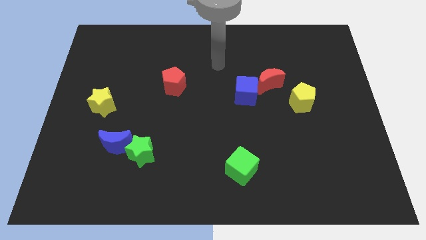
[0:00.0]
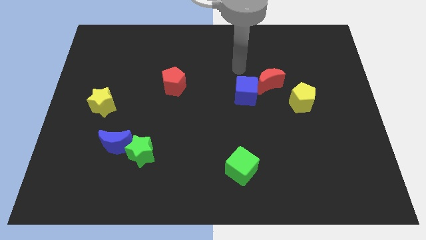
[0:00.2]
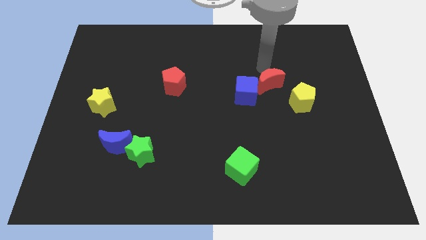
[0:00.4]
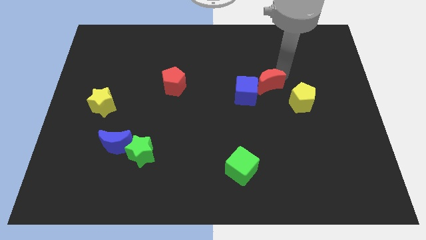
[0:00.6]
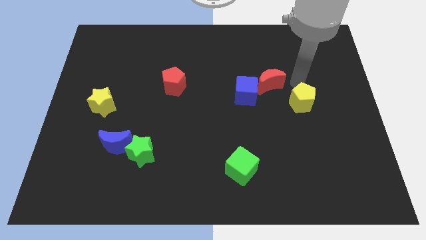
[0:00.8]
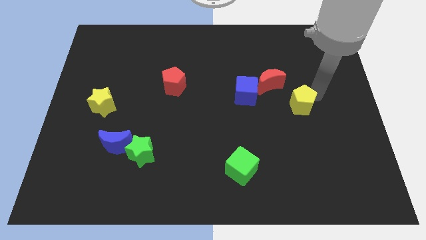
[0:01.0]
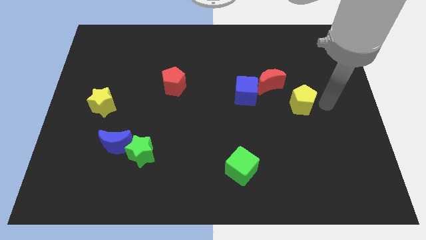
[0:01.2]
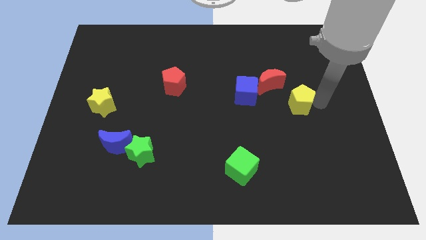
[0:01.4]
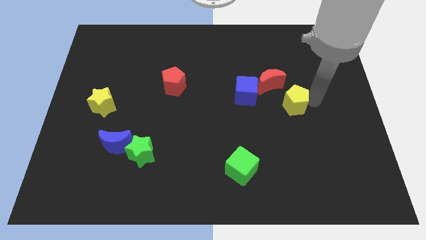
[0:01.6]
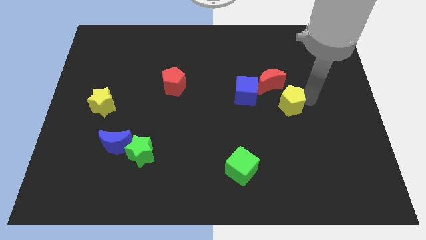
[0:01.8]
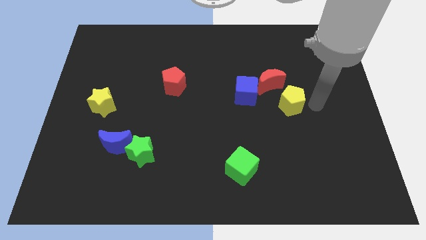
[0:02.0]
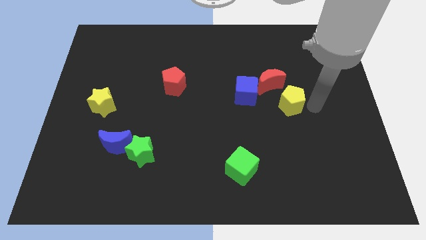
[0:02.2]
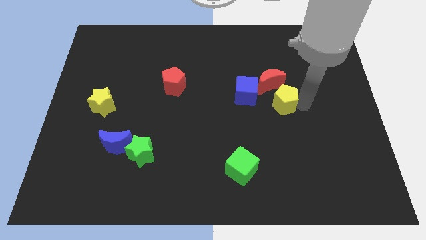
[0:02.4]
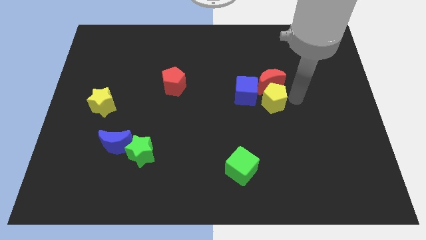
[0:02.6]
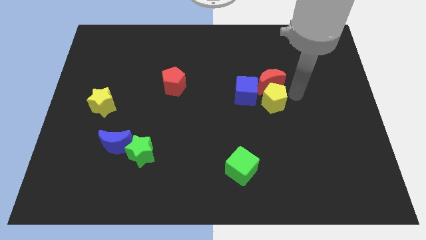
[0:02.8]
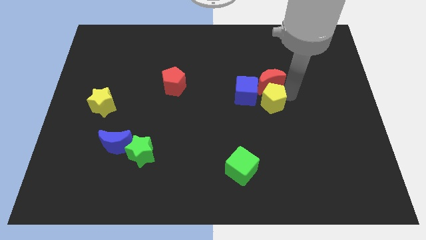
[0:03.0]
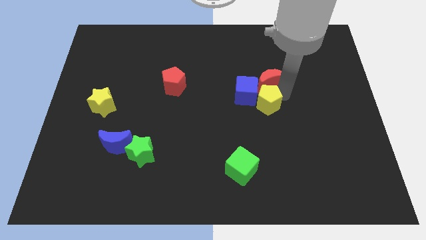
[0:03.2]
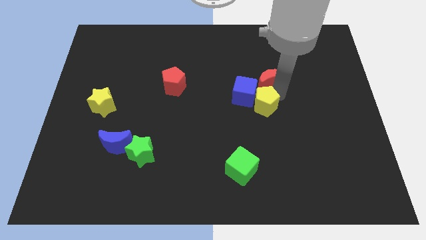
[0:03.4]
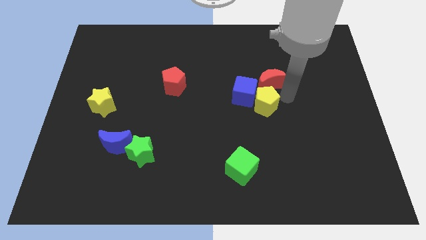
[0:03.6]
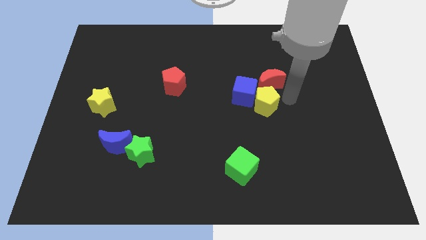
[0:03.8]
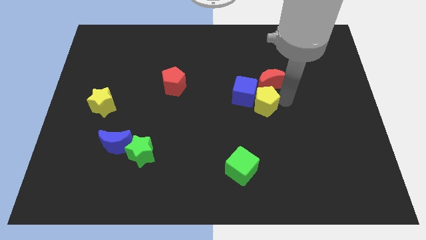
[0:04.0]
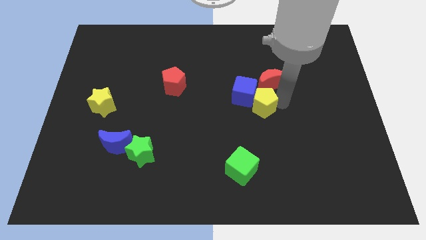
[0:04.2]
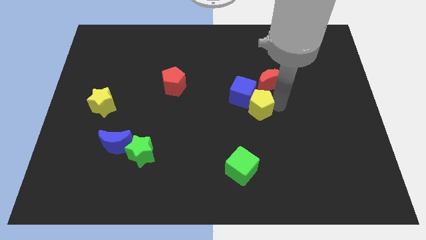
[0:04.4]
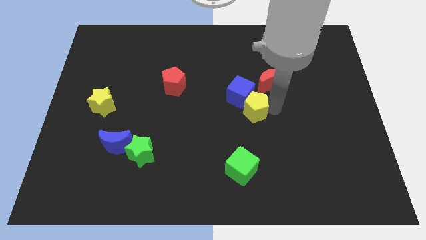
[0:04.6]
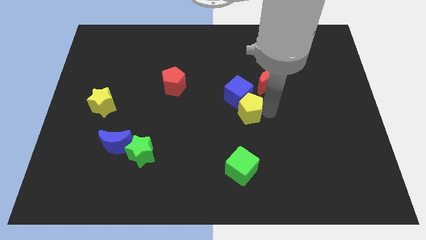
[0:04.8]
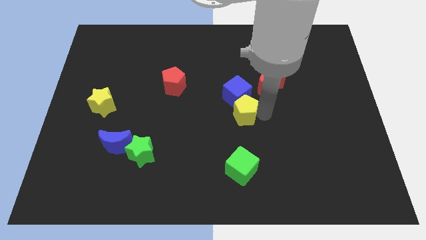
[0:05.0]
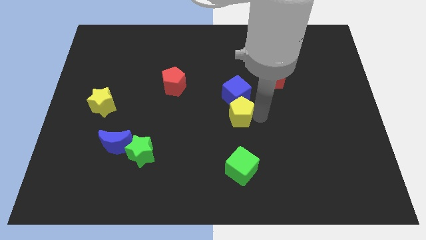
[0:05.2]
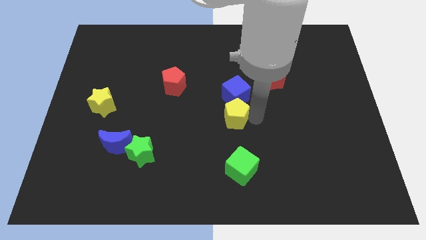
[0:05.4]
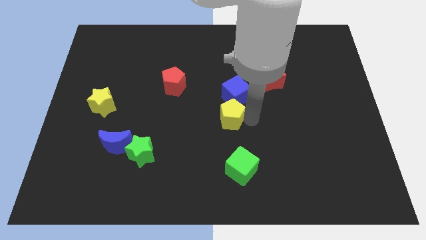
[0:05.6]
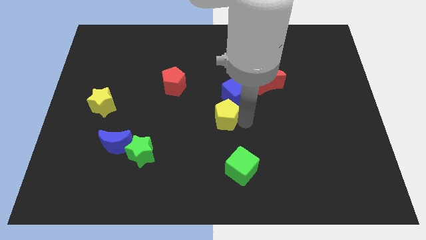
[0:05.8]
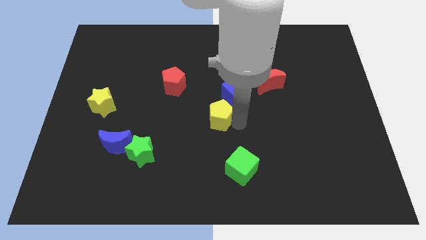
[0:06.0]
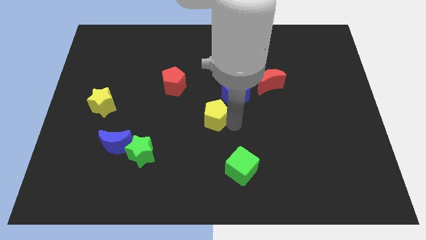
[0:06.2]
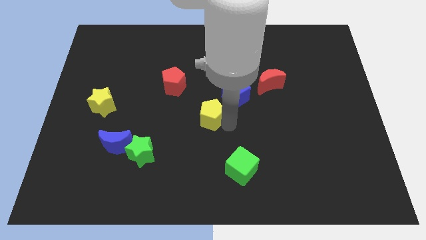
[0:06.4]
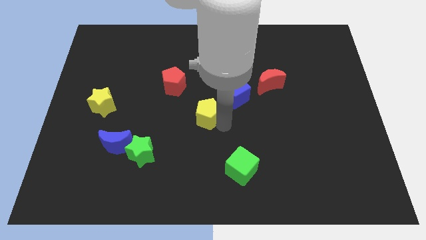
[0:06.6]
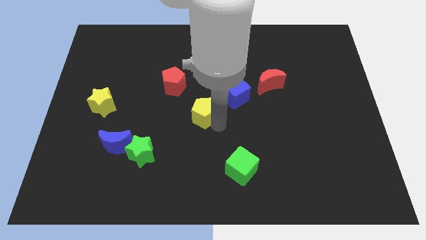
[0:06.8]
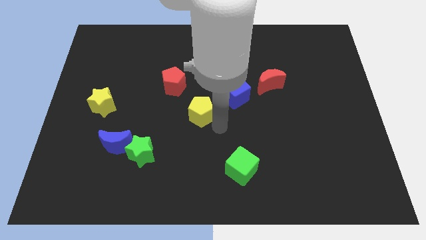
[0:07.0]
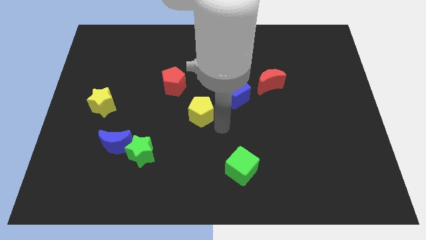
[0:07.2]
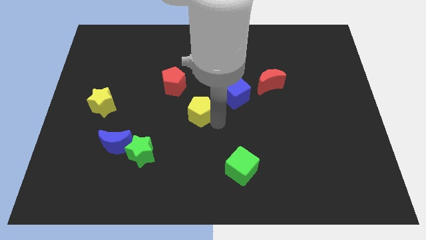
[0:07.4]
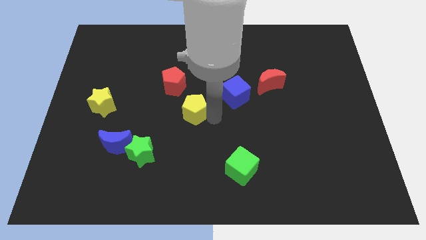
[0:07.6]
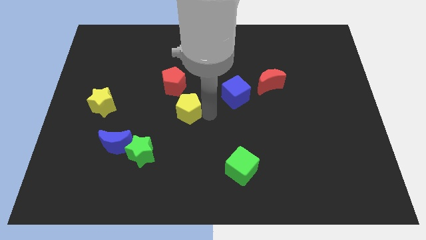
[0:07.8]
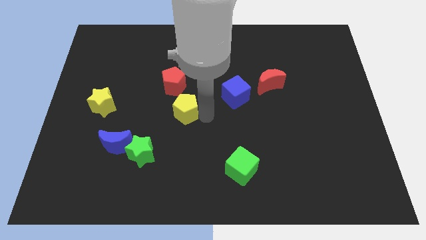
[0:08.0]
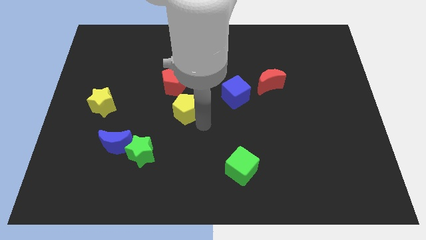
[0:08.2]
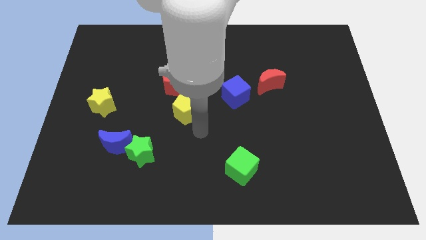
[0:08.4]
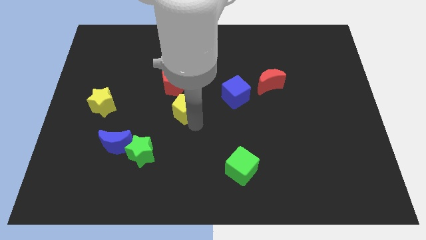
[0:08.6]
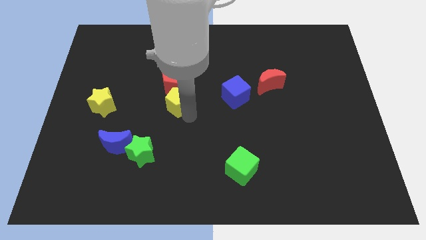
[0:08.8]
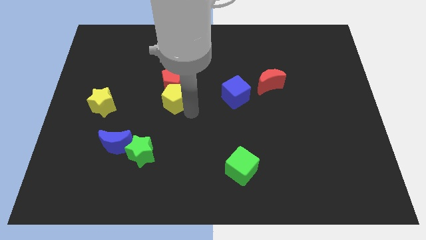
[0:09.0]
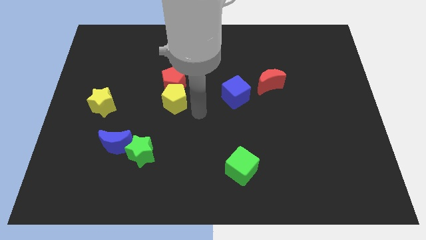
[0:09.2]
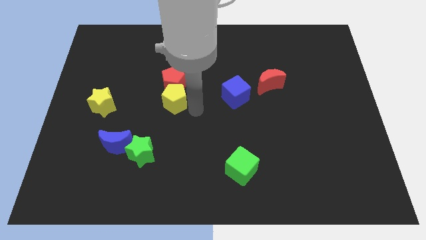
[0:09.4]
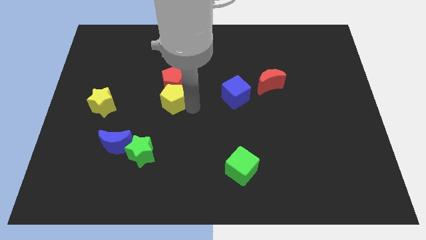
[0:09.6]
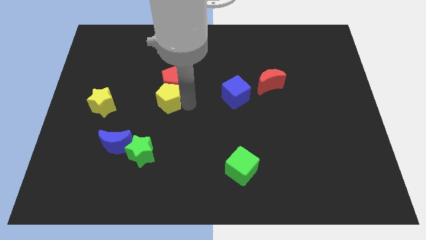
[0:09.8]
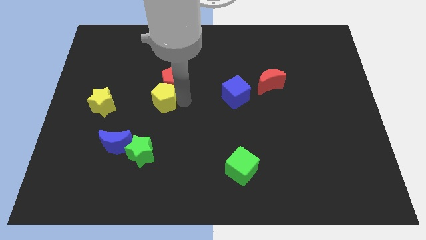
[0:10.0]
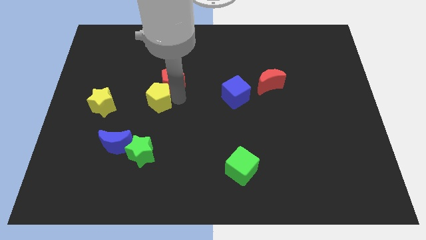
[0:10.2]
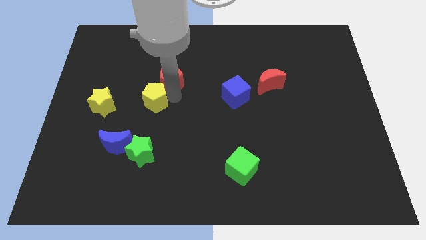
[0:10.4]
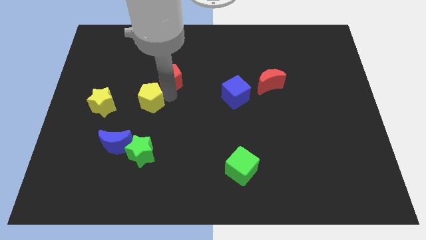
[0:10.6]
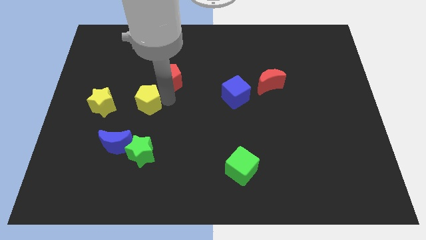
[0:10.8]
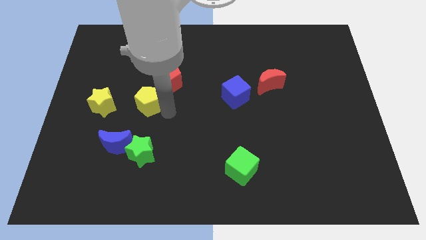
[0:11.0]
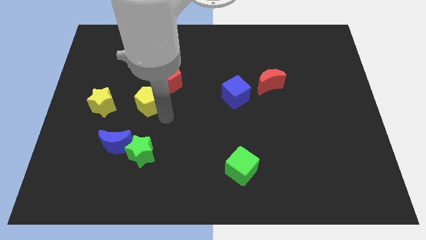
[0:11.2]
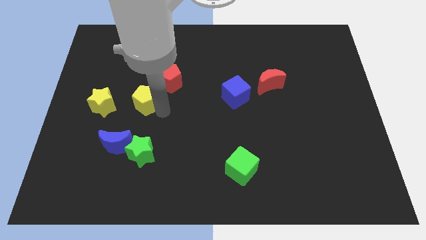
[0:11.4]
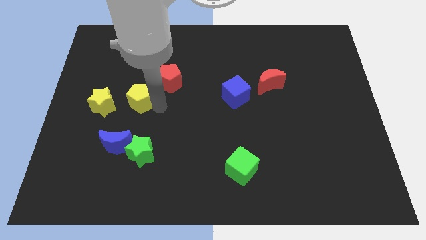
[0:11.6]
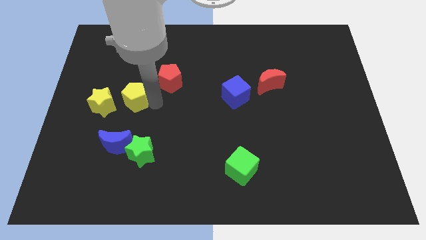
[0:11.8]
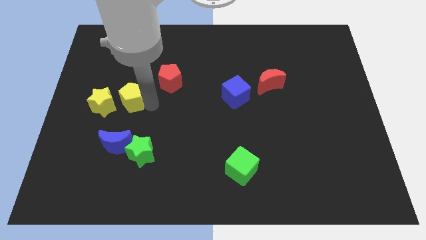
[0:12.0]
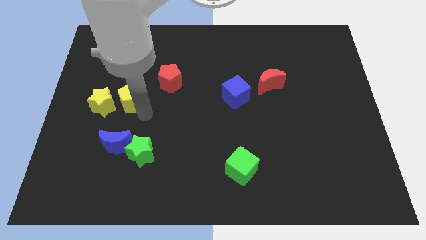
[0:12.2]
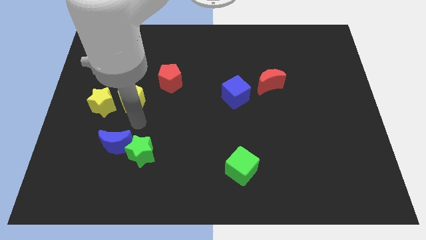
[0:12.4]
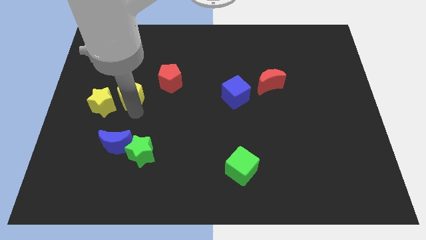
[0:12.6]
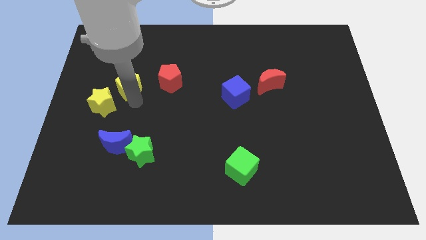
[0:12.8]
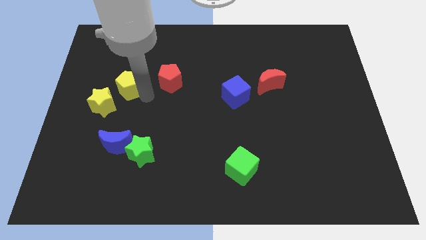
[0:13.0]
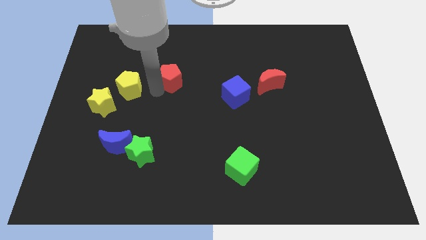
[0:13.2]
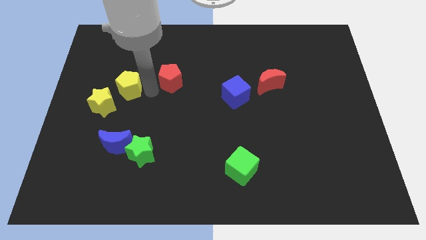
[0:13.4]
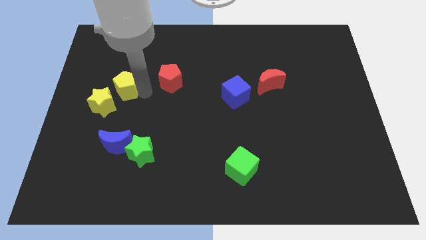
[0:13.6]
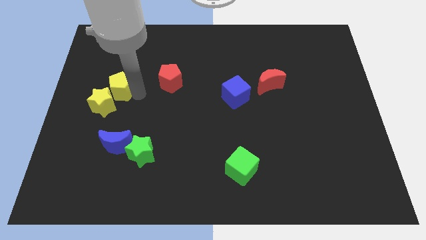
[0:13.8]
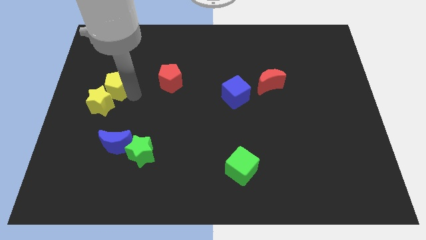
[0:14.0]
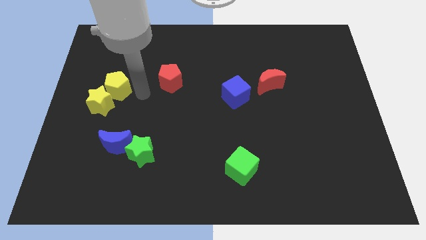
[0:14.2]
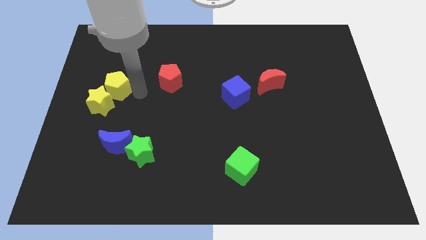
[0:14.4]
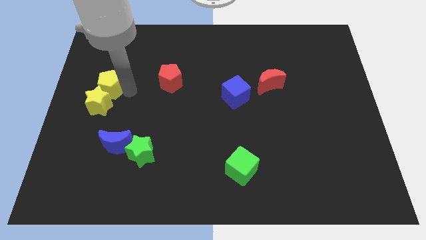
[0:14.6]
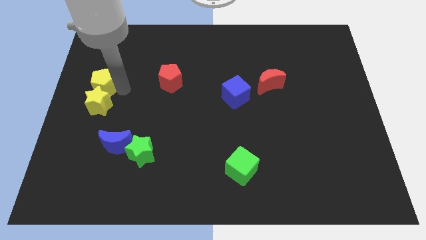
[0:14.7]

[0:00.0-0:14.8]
put the yellow pentagon to the left side
